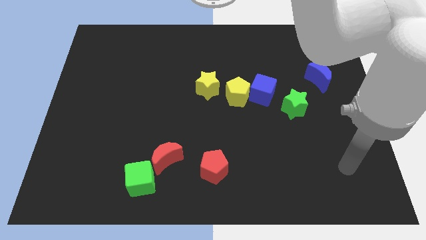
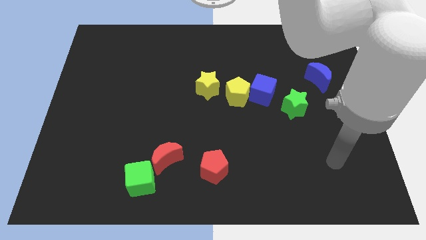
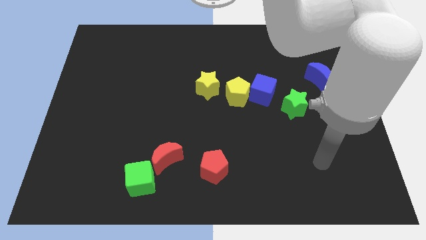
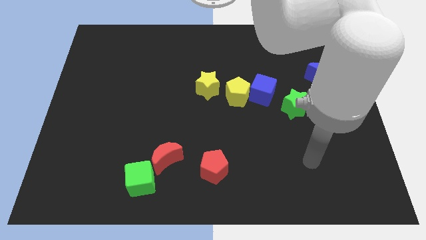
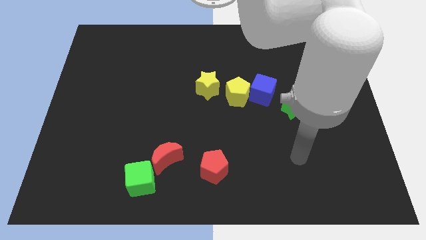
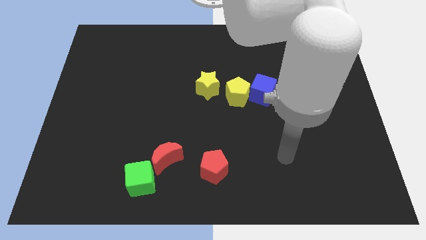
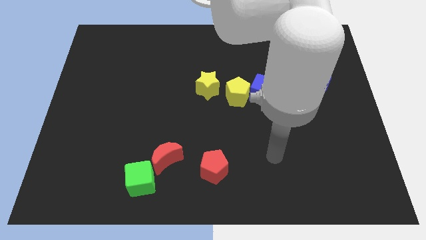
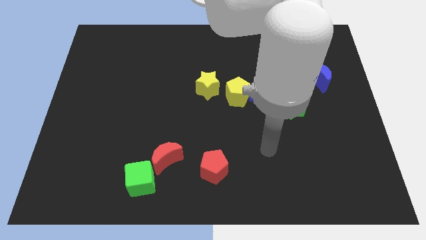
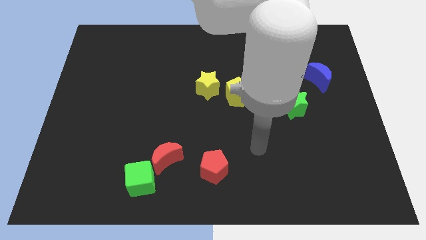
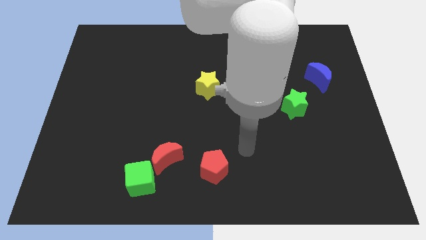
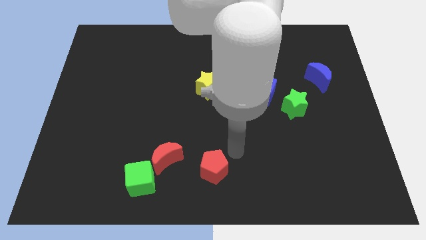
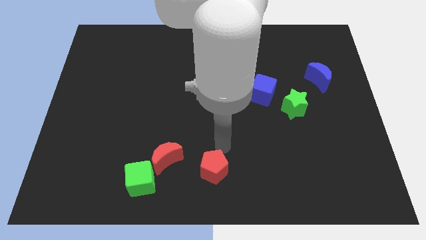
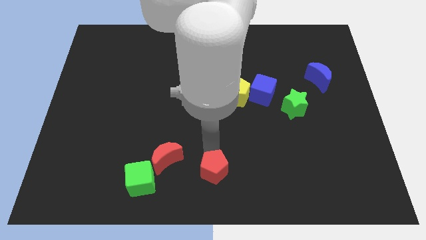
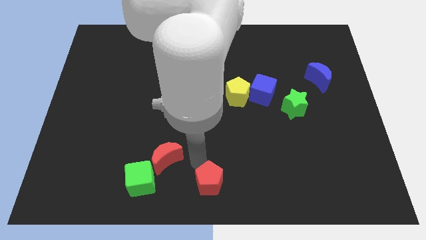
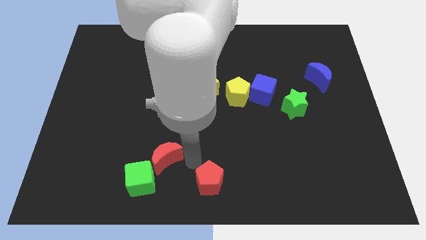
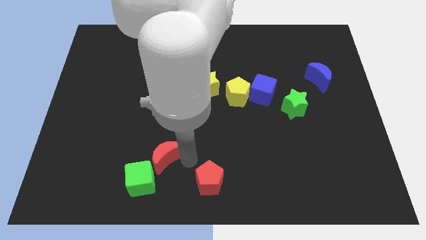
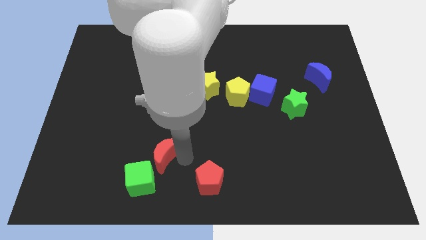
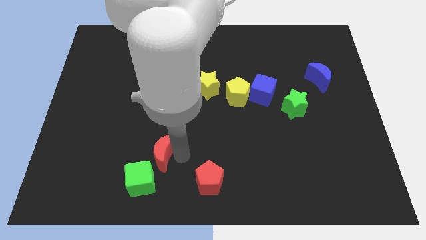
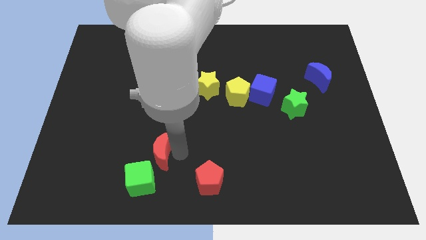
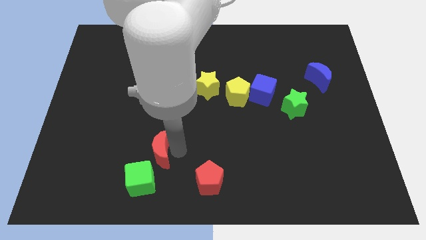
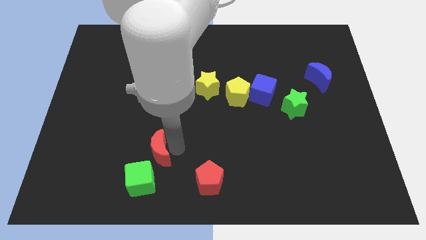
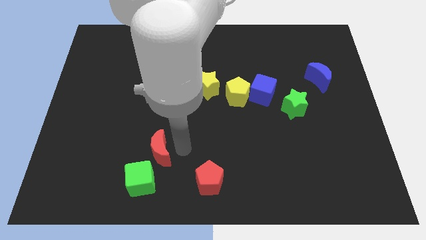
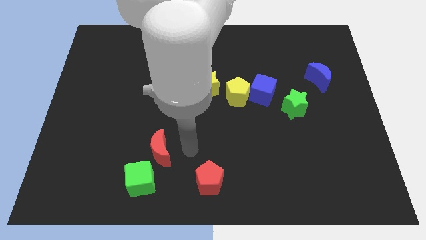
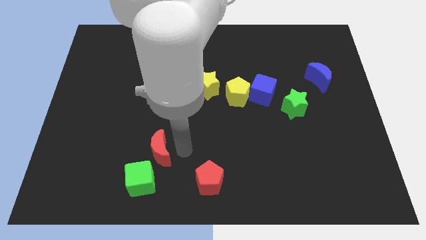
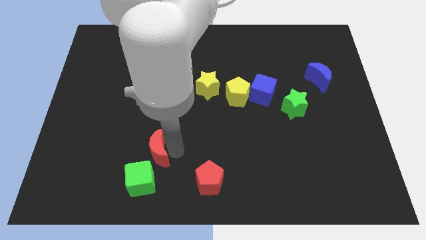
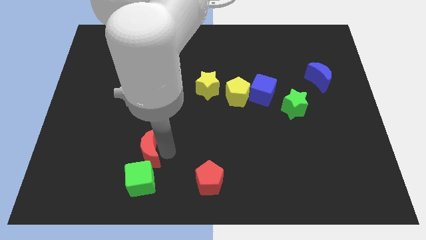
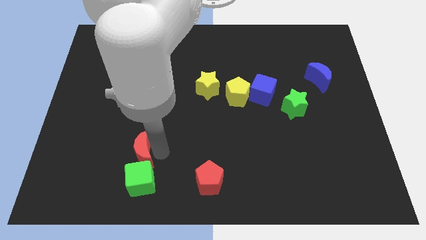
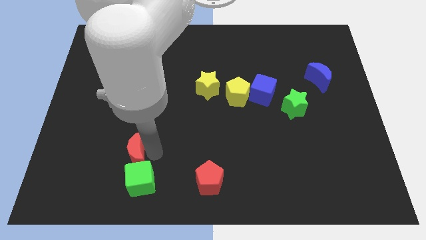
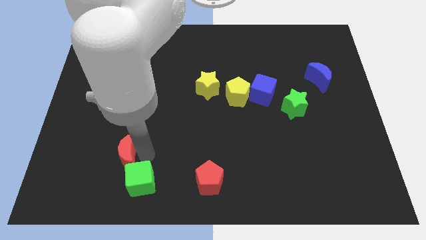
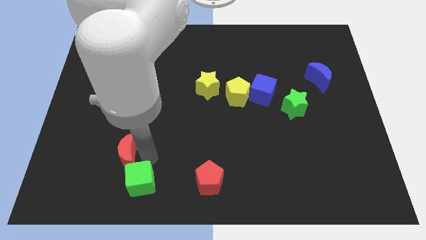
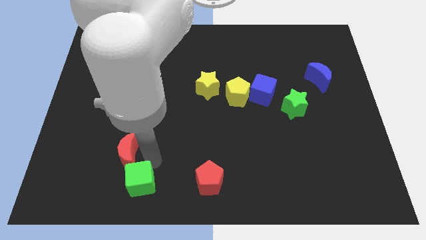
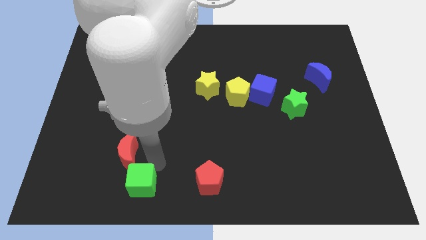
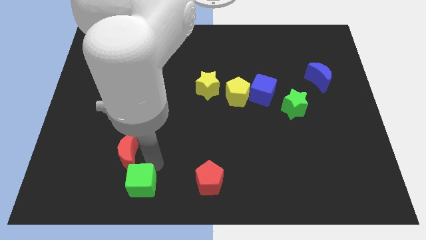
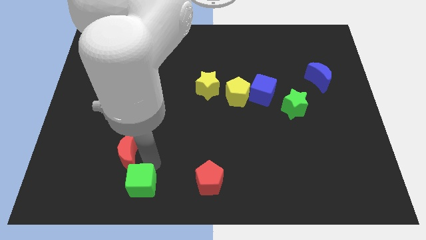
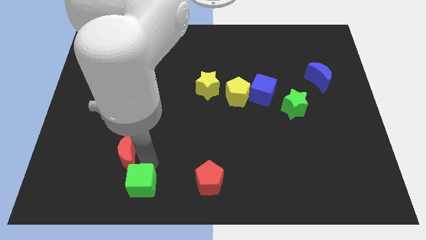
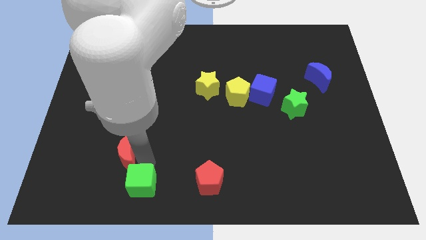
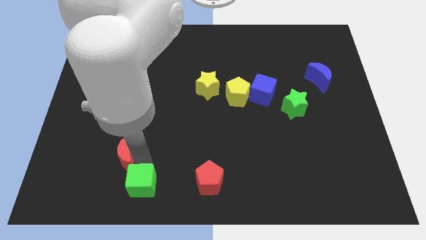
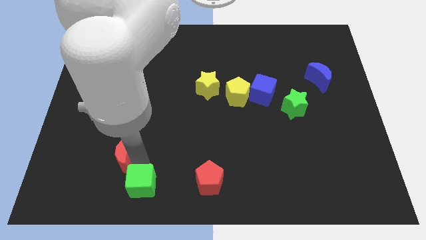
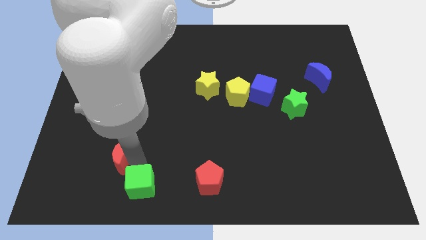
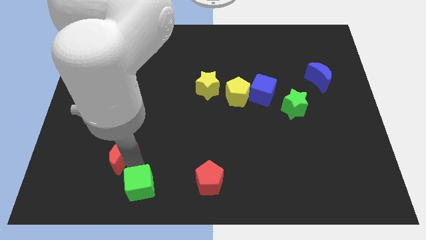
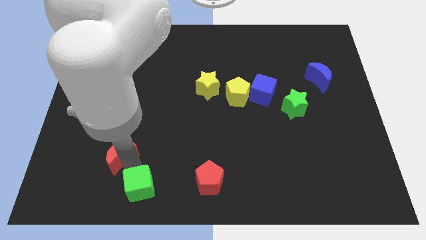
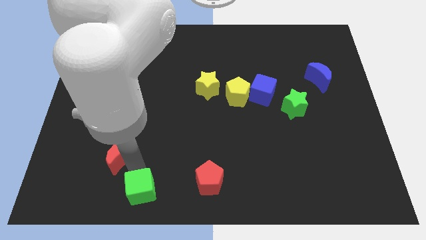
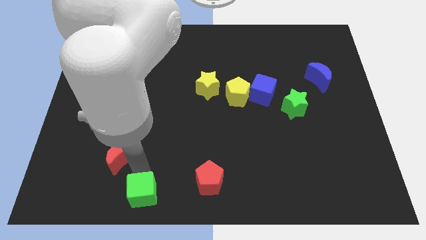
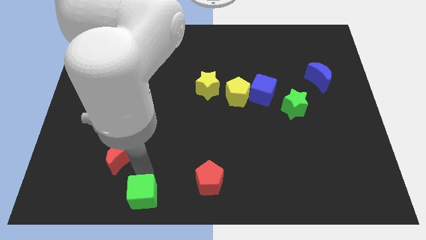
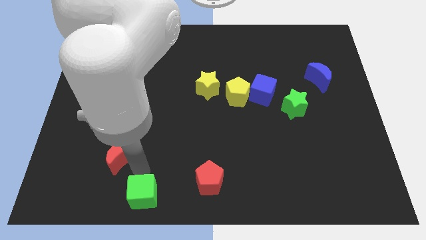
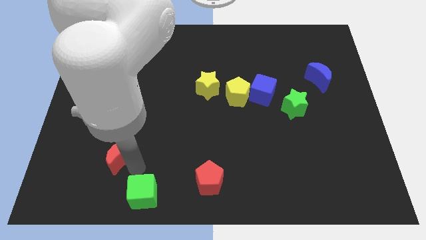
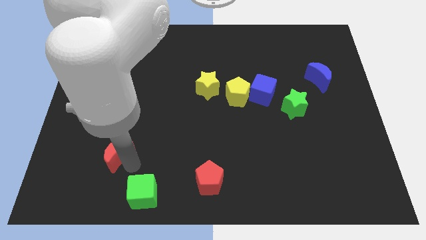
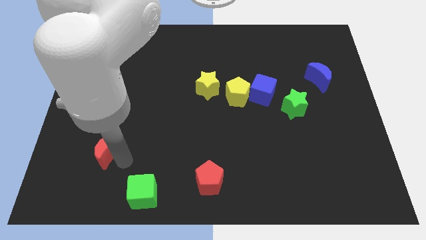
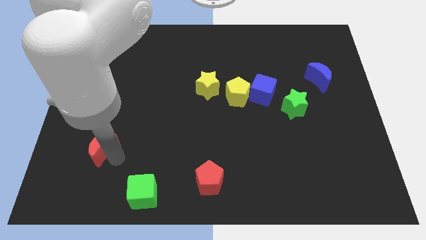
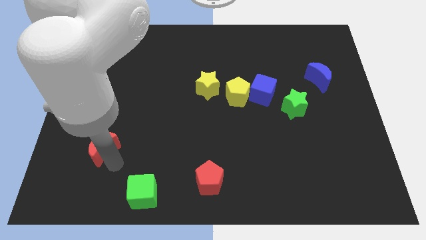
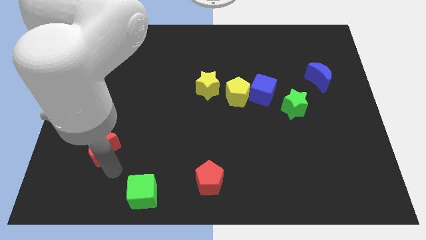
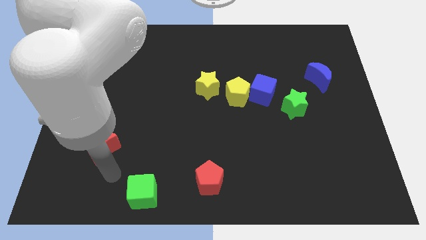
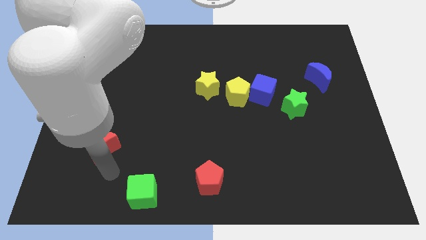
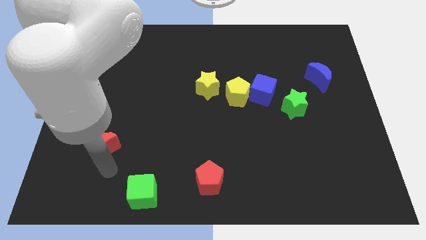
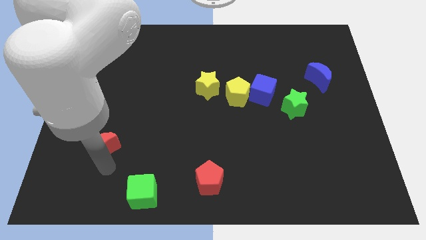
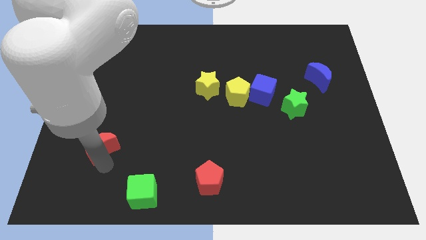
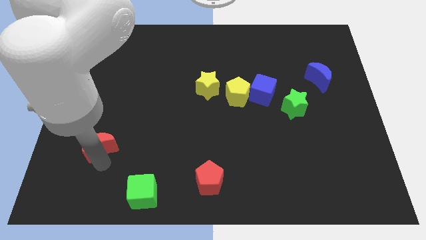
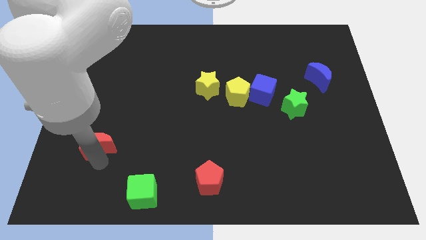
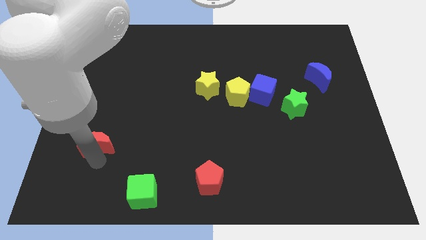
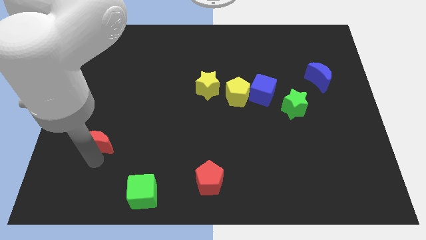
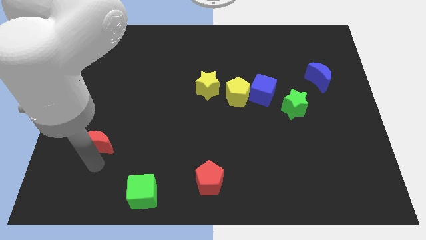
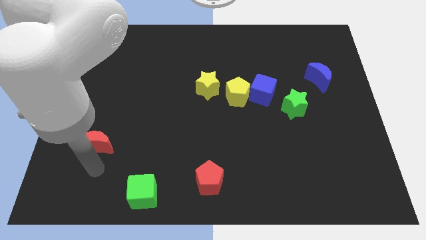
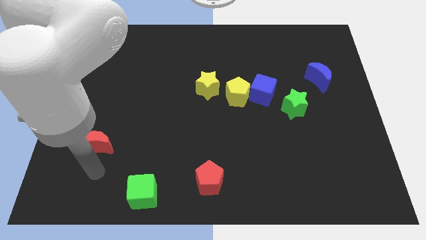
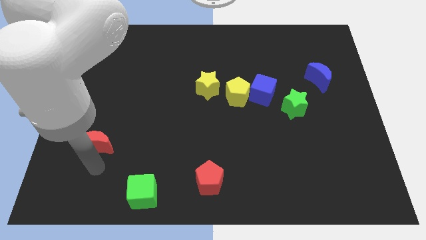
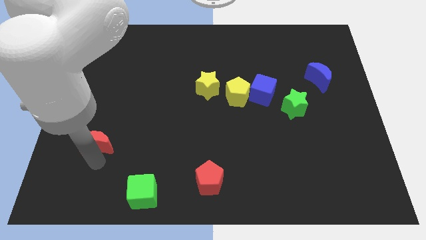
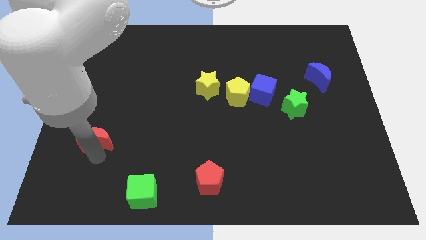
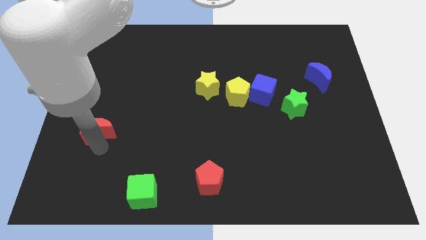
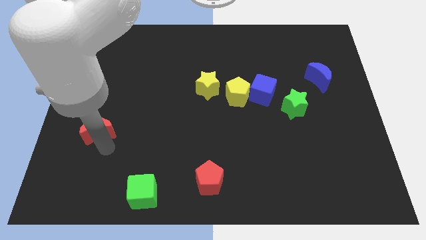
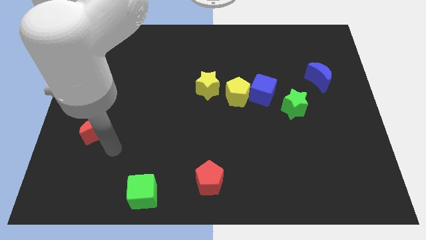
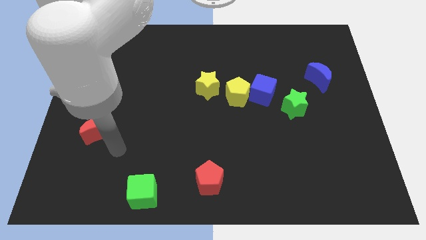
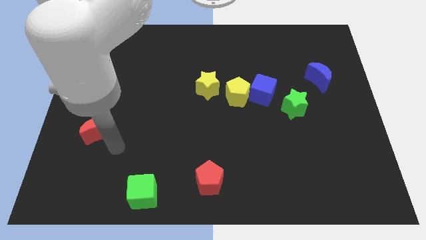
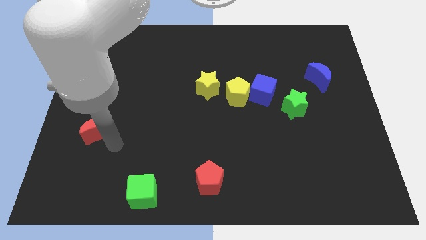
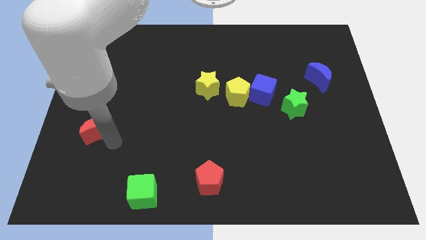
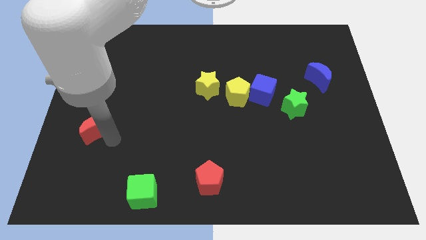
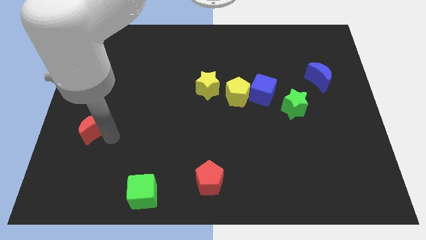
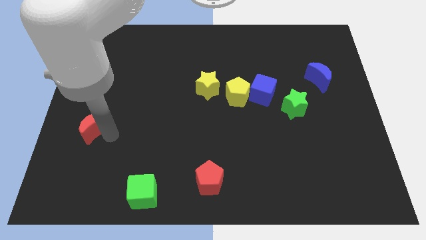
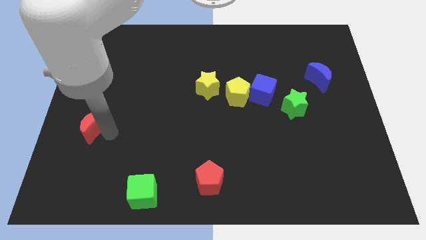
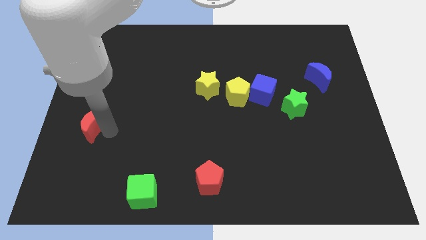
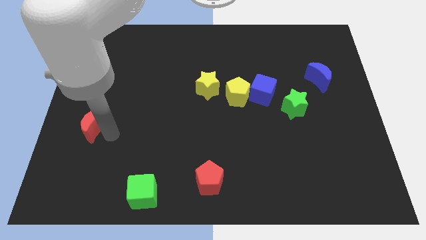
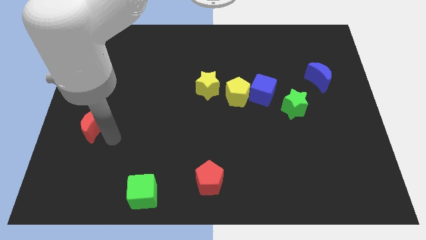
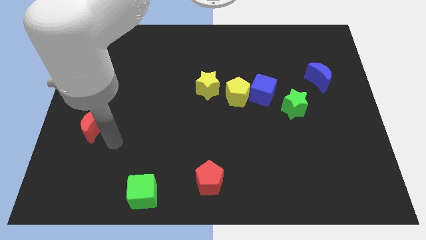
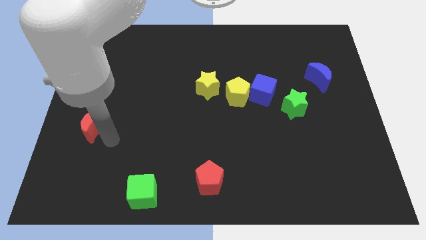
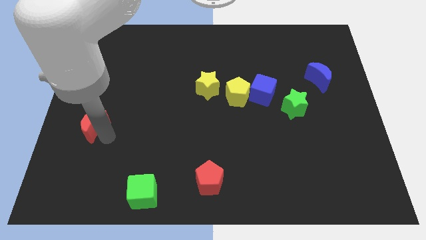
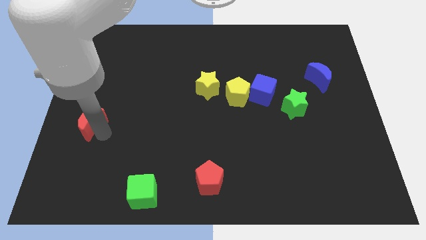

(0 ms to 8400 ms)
put the red moon to the left side of the board
